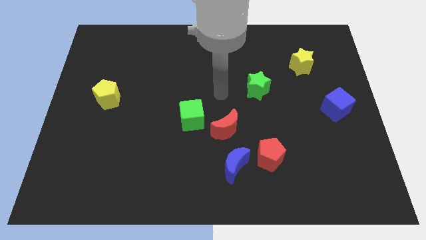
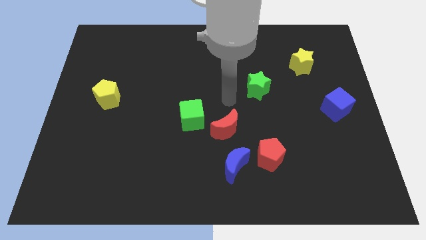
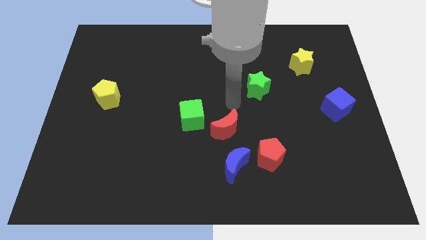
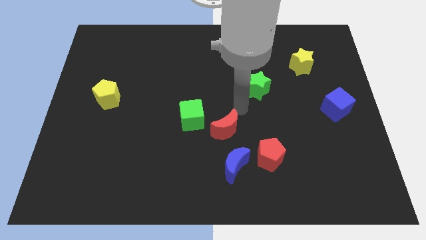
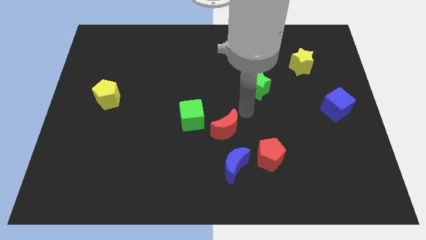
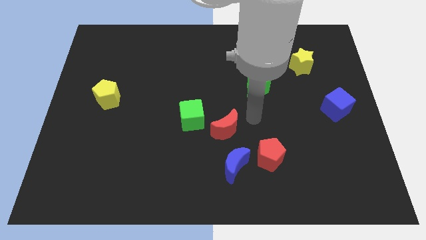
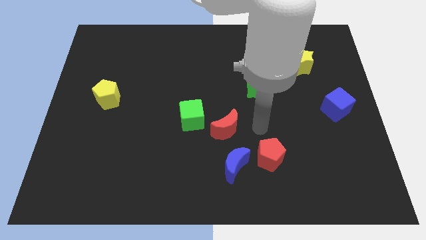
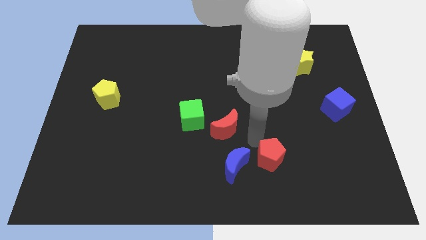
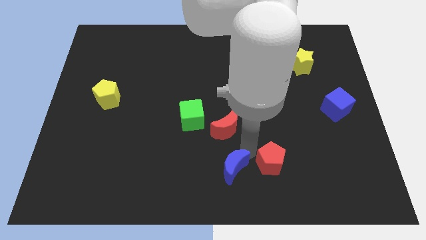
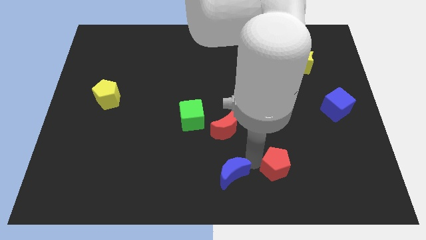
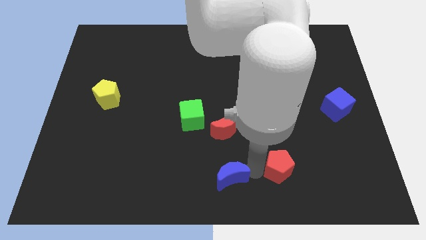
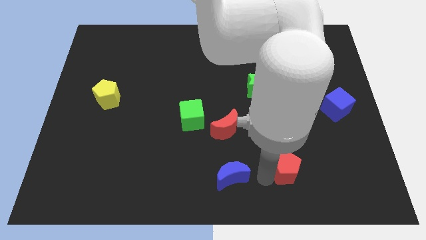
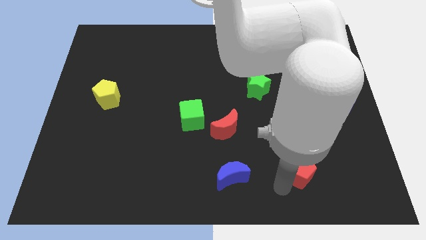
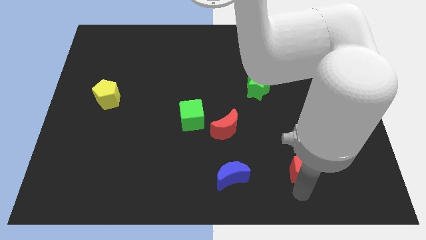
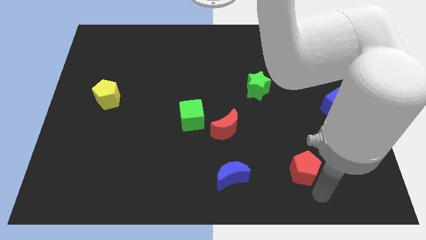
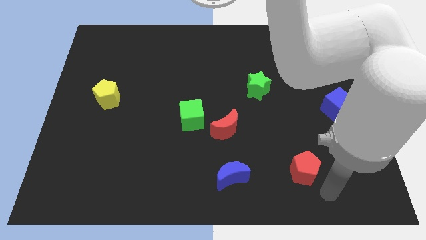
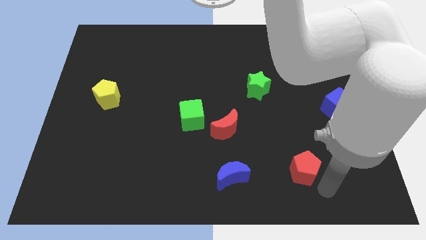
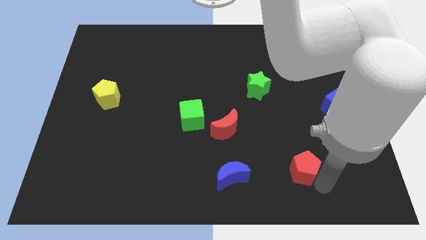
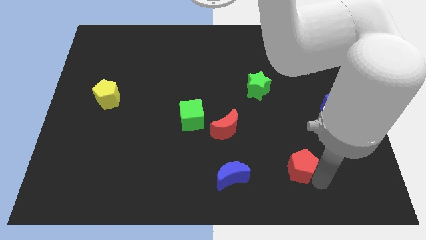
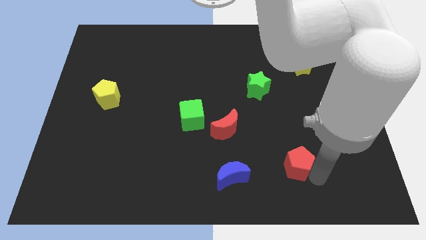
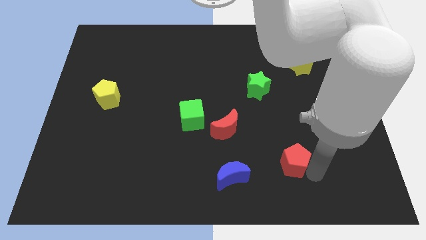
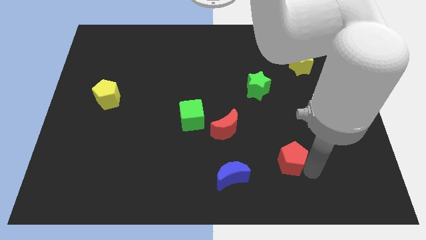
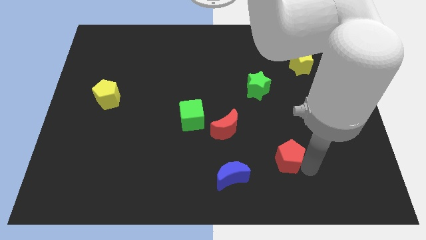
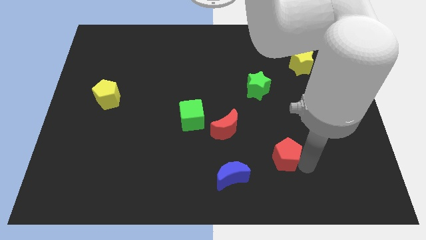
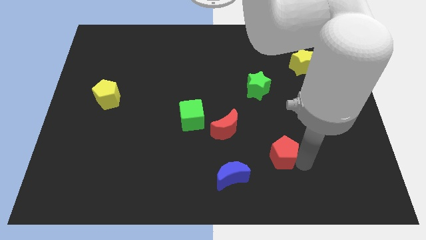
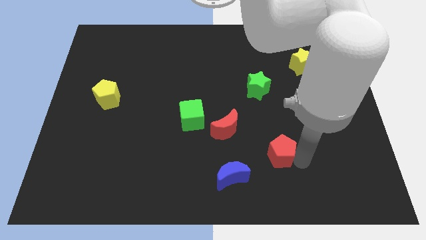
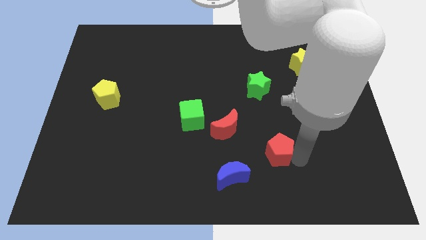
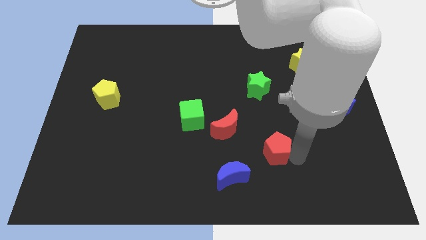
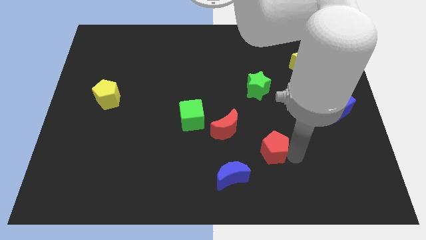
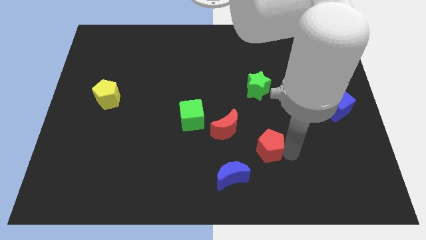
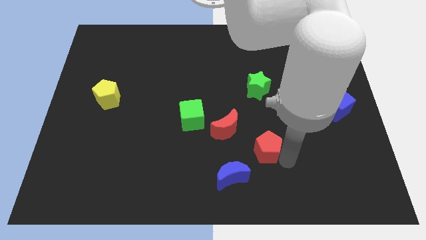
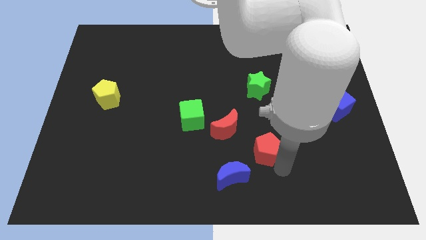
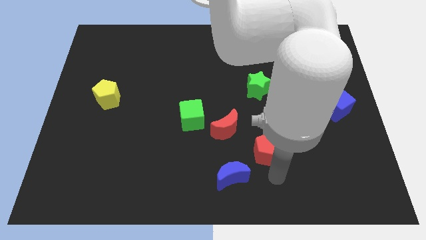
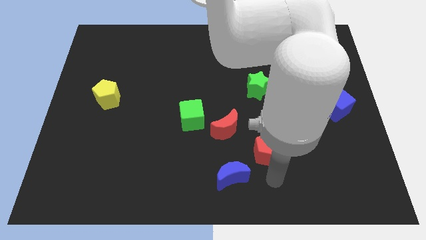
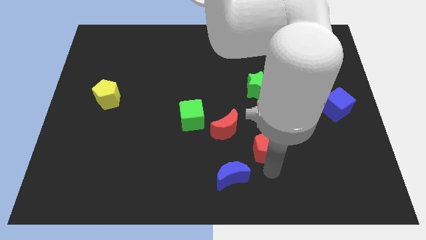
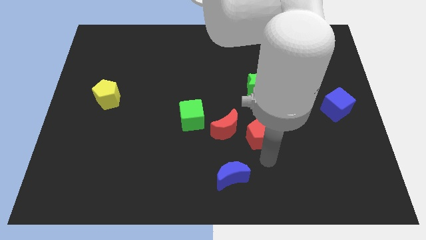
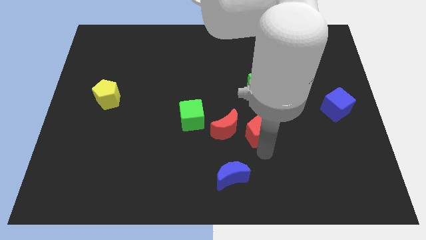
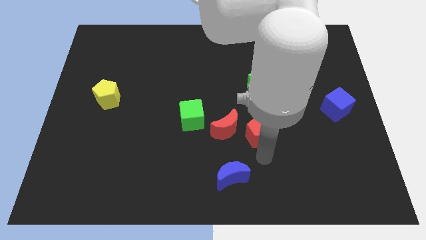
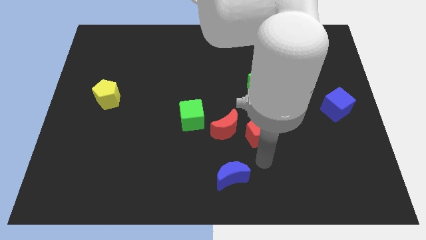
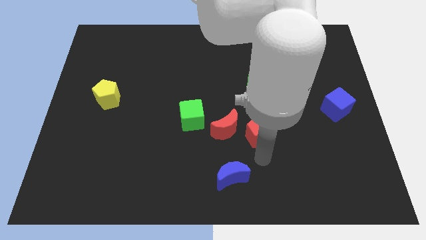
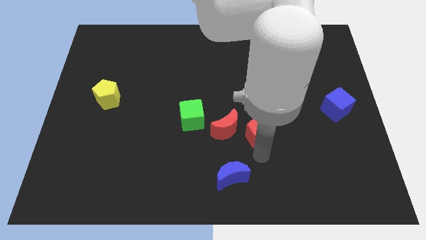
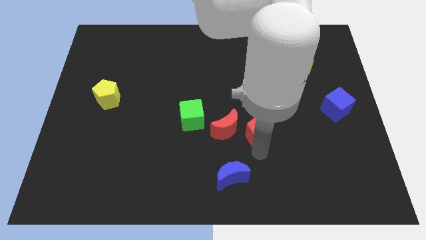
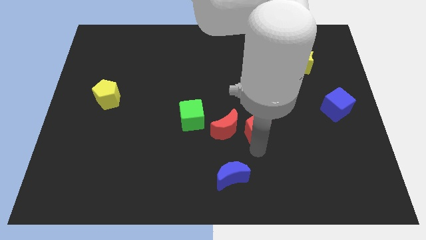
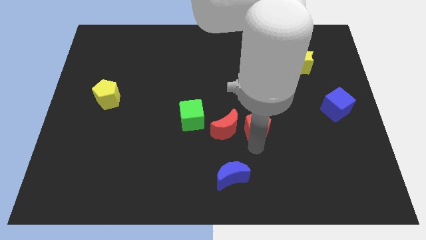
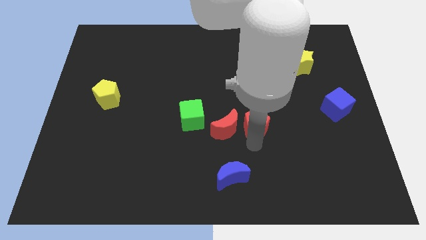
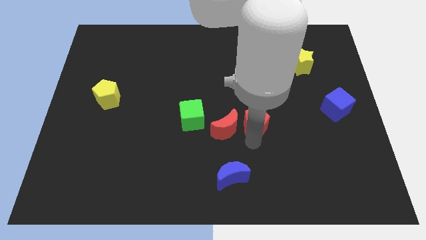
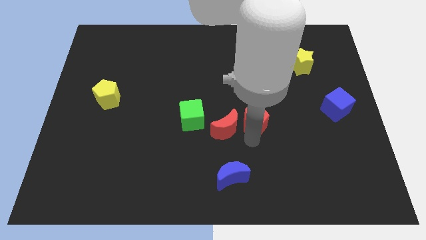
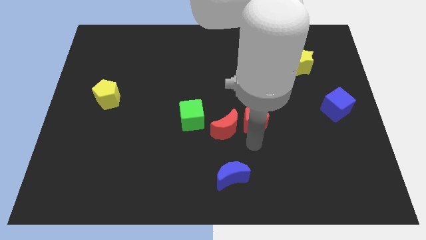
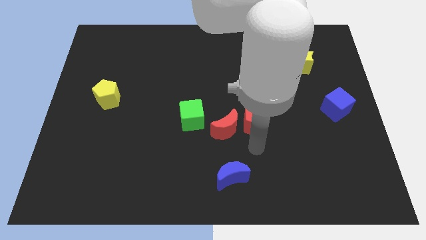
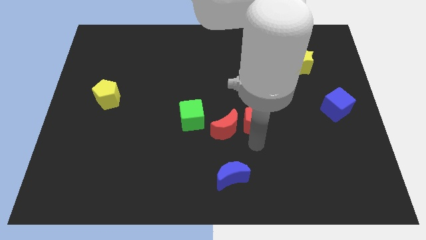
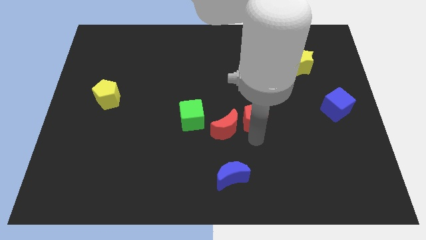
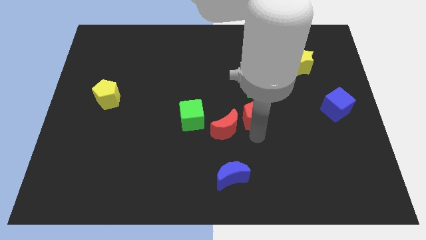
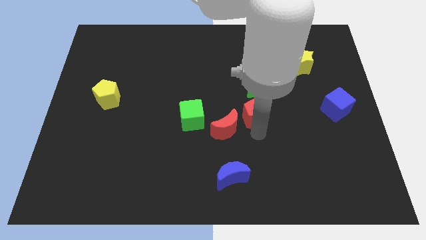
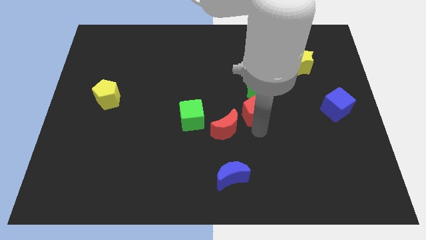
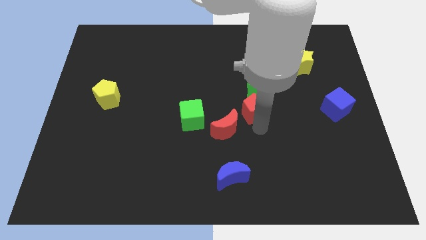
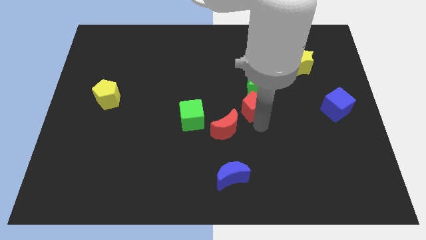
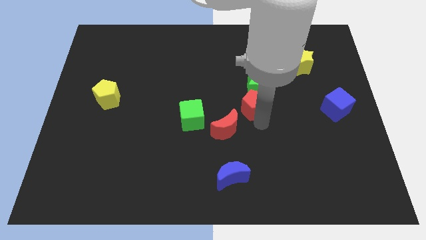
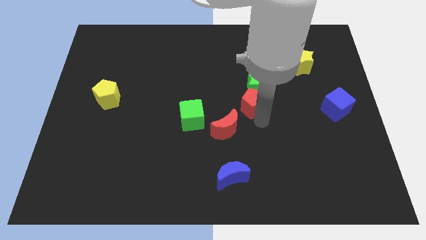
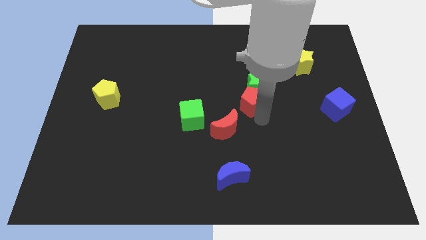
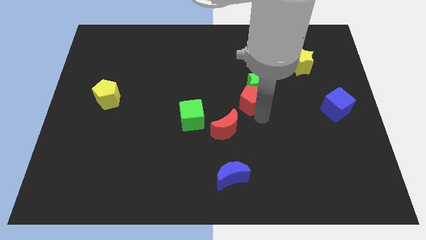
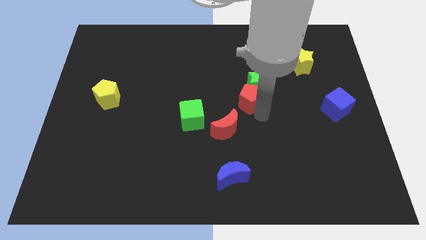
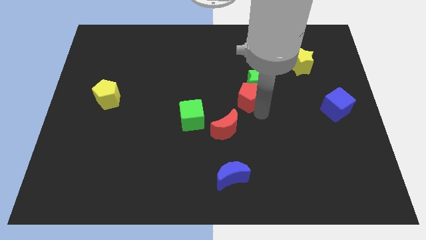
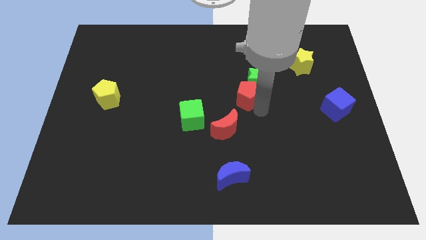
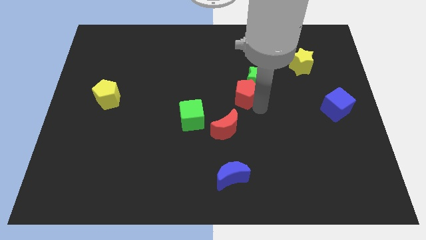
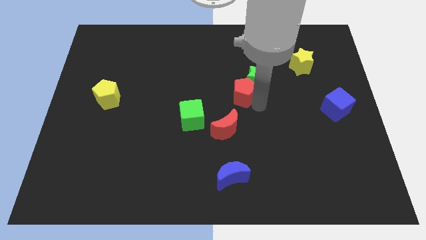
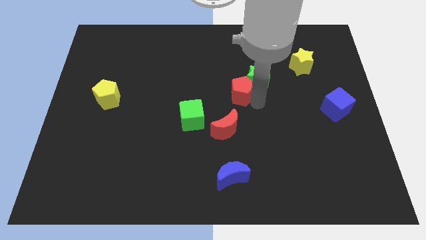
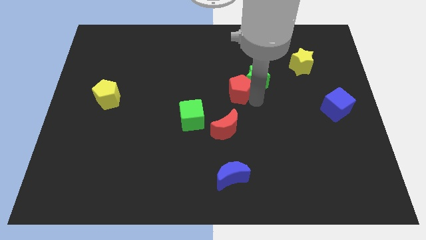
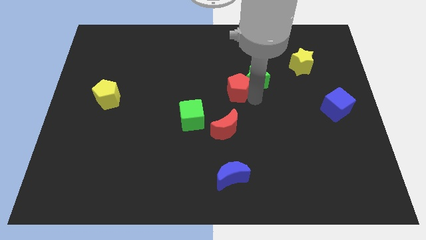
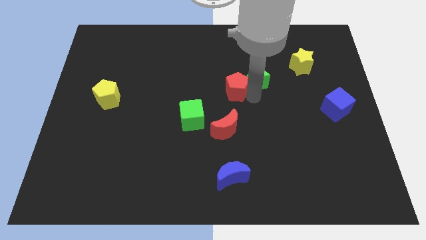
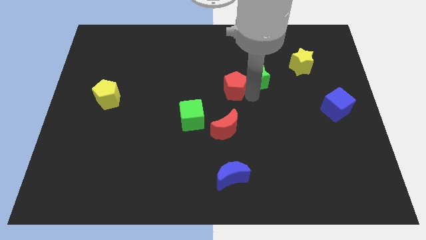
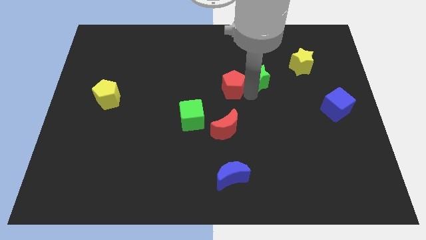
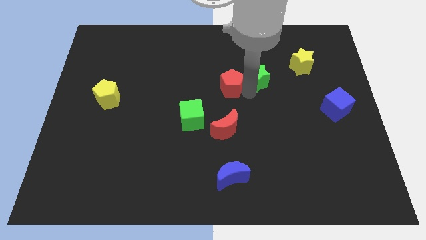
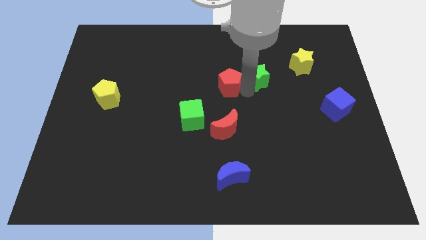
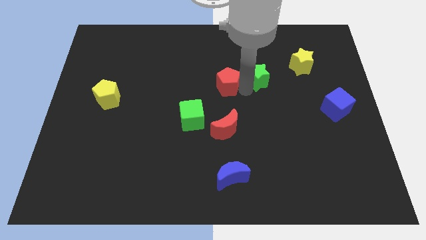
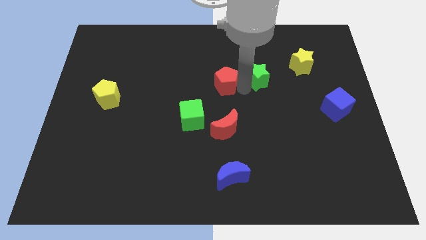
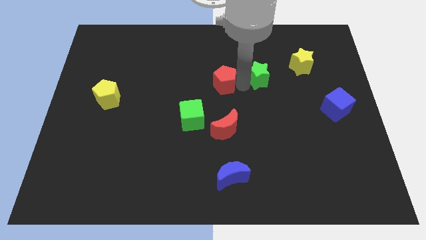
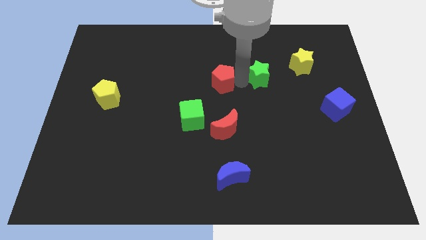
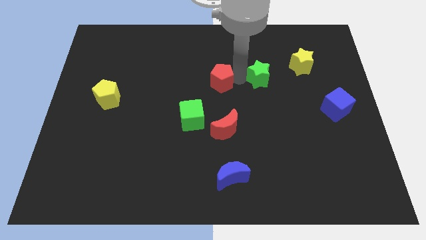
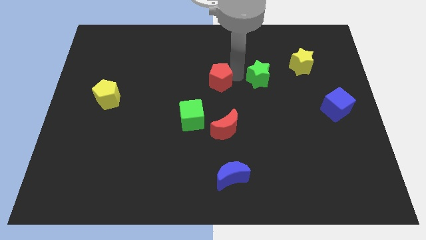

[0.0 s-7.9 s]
slide the red pentagon diagonally upwards and left

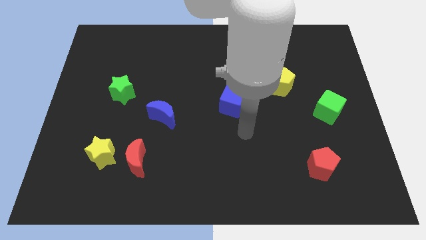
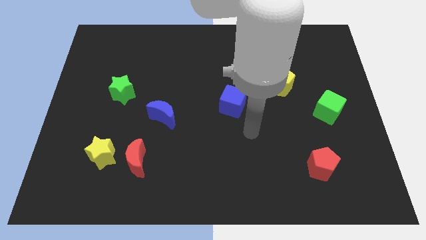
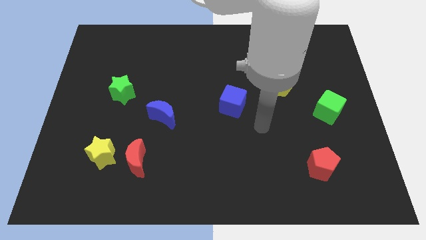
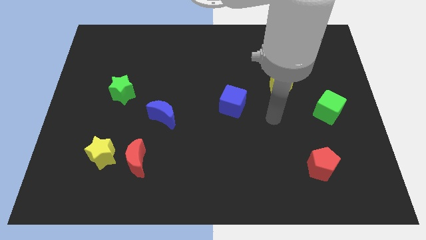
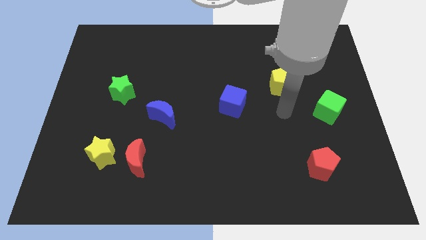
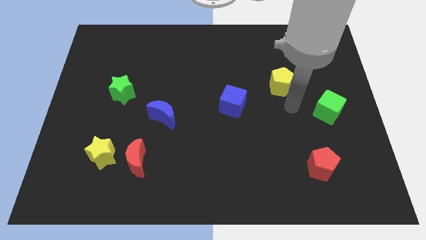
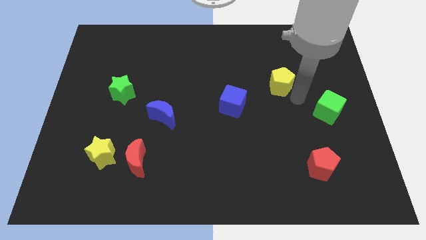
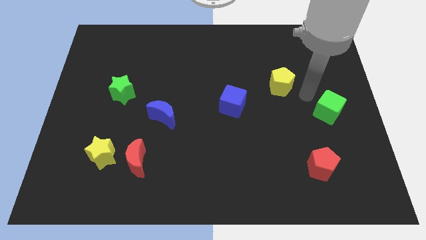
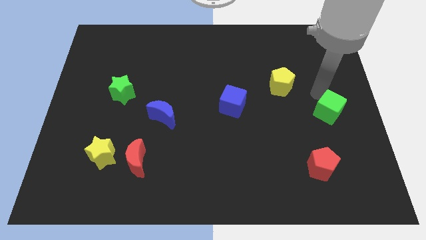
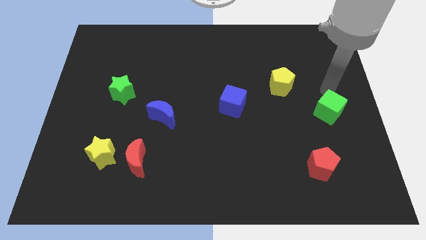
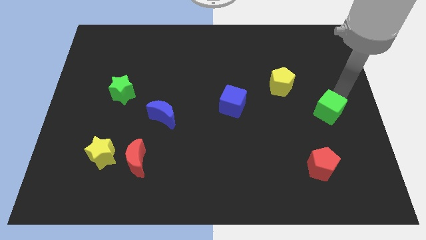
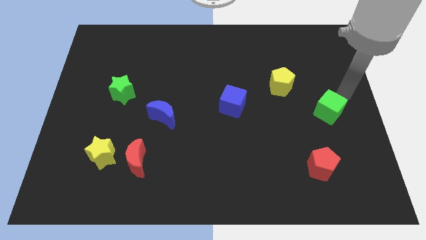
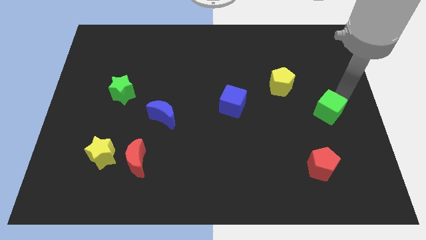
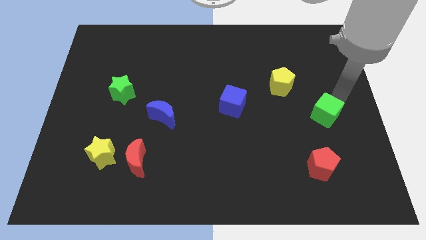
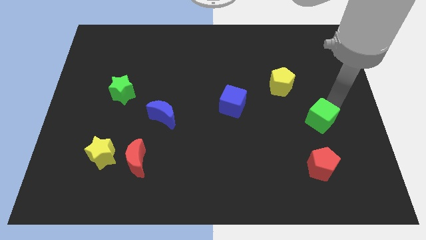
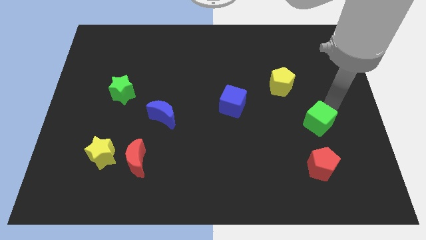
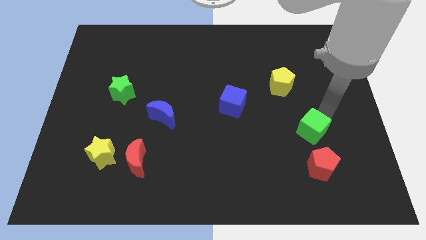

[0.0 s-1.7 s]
slightly move the green cube downwards and left
